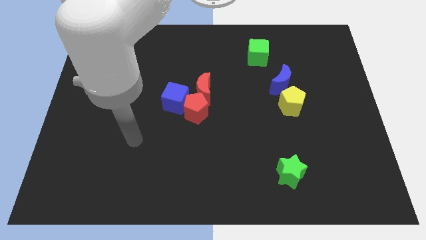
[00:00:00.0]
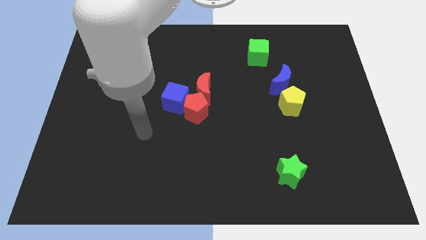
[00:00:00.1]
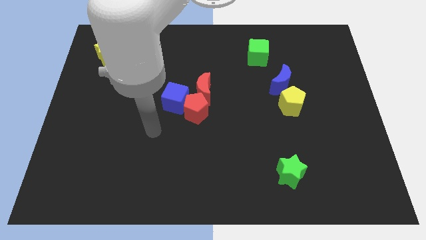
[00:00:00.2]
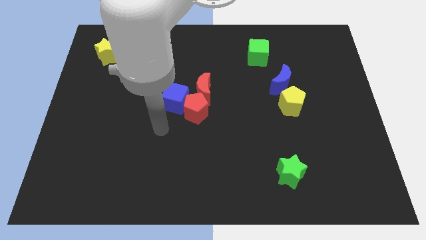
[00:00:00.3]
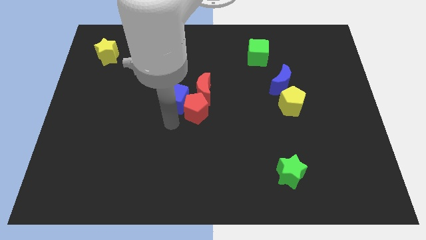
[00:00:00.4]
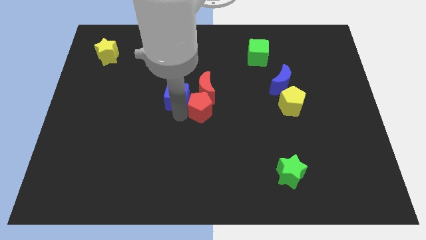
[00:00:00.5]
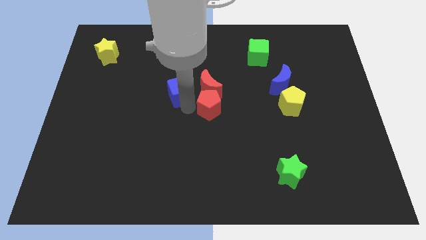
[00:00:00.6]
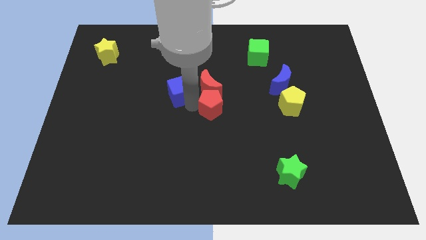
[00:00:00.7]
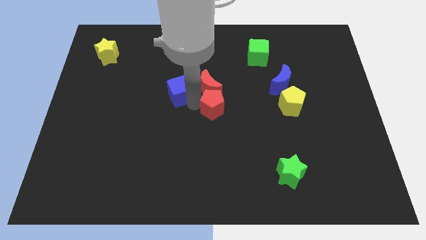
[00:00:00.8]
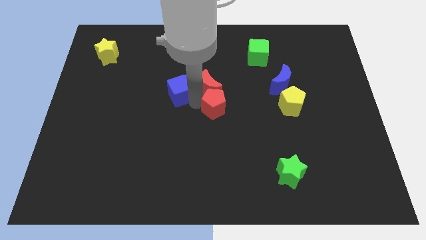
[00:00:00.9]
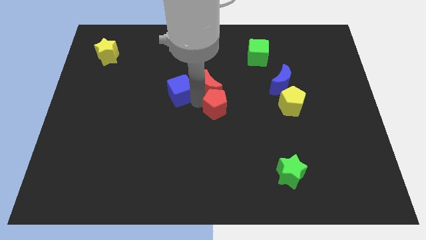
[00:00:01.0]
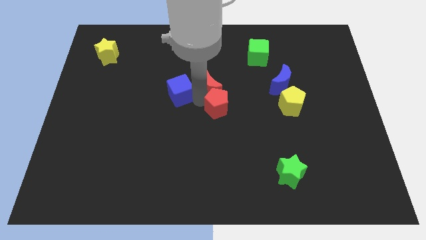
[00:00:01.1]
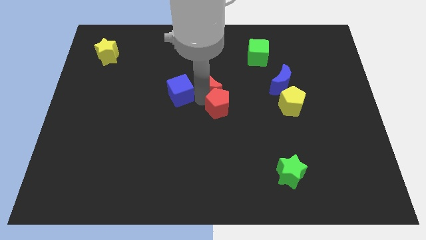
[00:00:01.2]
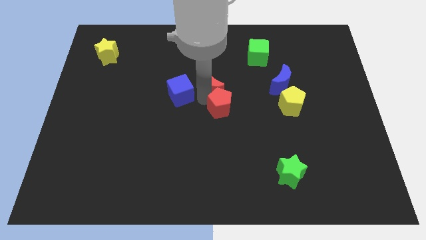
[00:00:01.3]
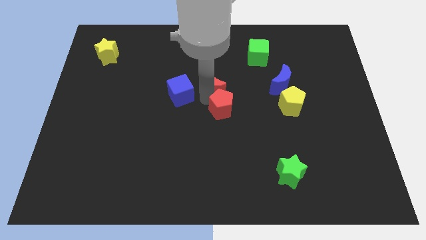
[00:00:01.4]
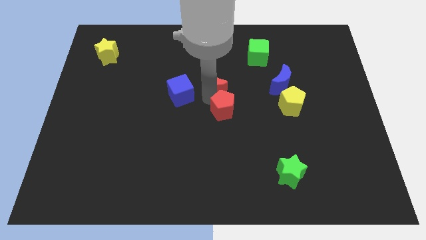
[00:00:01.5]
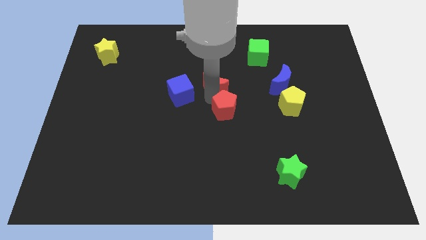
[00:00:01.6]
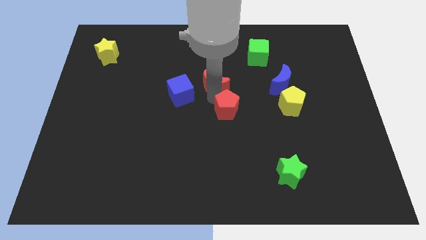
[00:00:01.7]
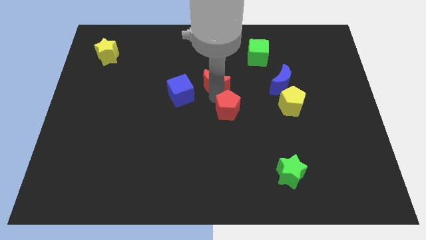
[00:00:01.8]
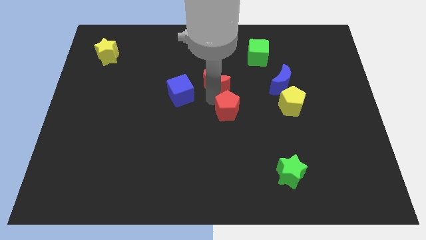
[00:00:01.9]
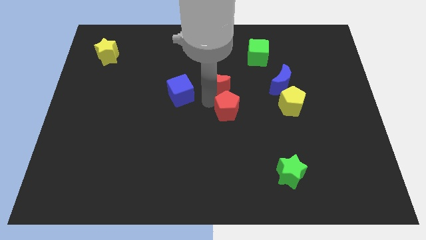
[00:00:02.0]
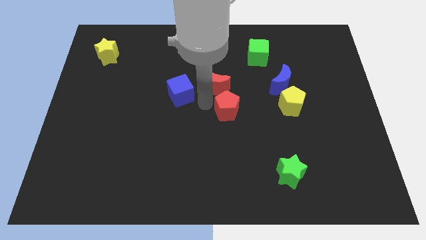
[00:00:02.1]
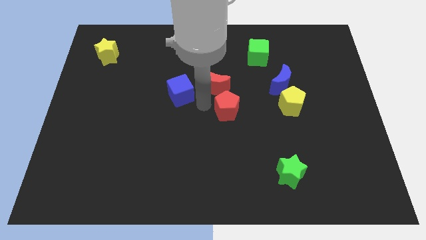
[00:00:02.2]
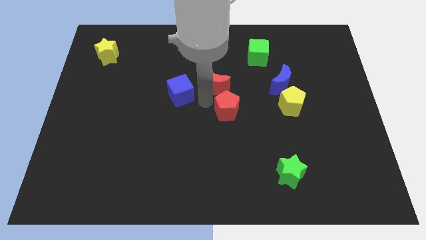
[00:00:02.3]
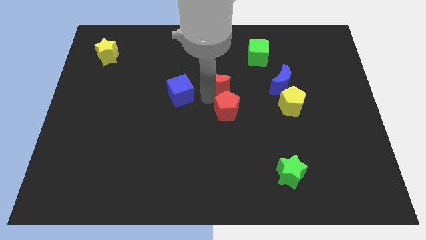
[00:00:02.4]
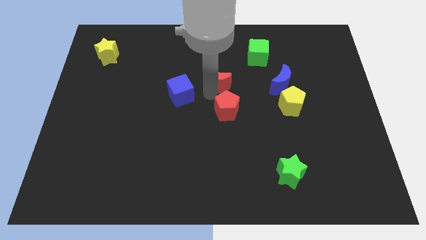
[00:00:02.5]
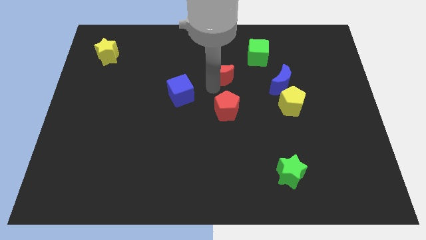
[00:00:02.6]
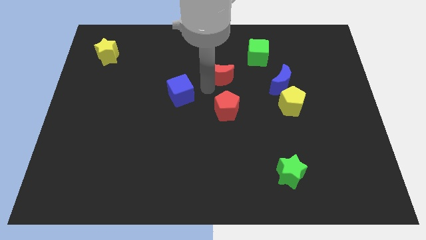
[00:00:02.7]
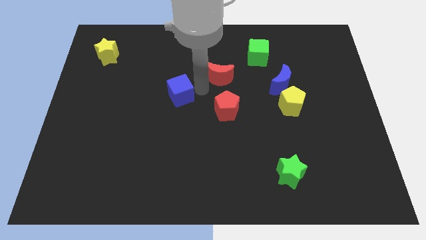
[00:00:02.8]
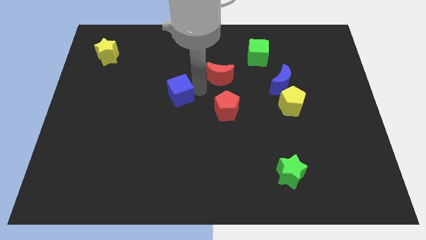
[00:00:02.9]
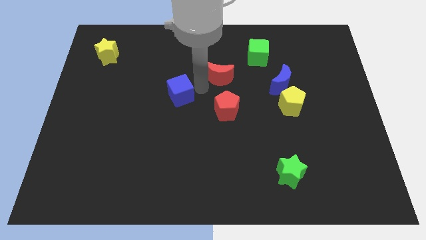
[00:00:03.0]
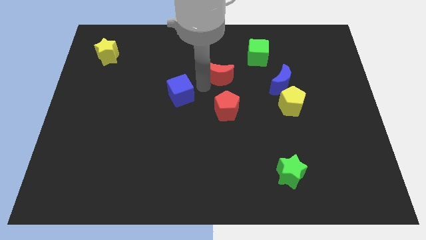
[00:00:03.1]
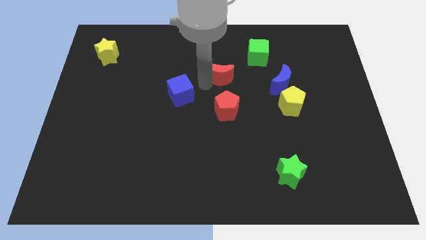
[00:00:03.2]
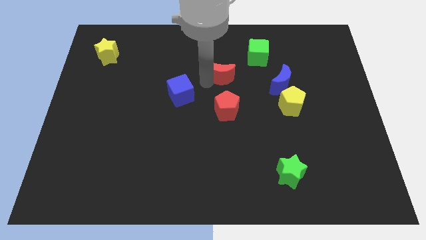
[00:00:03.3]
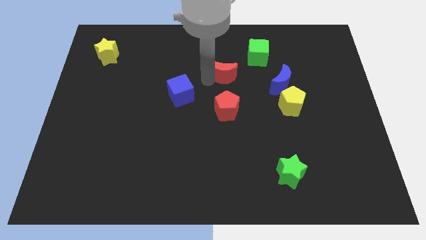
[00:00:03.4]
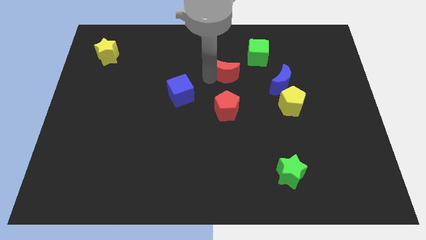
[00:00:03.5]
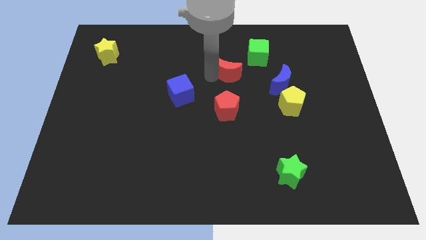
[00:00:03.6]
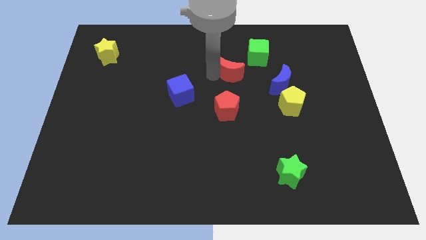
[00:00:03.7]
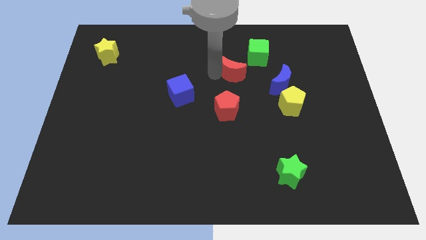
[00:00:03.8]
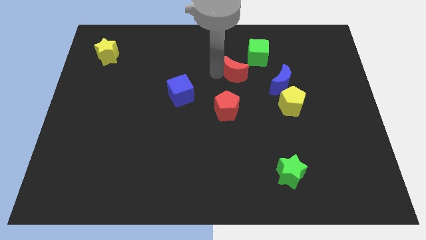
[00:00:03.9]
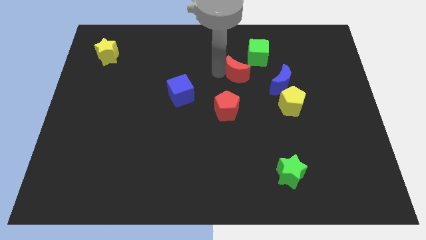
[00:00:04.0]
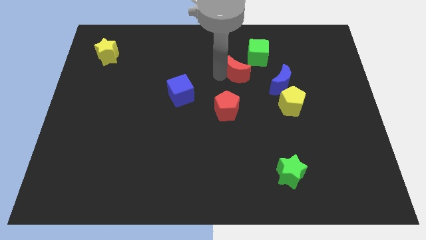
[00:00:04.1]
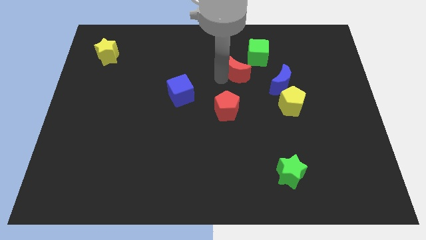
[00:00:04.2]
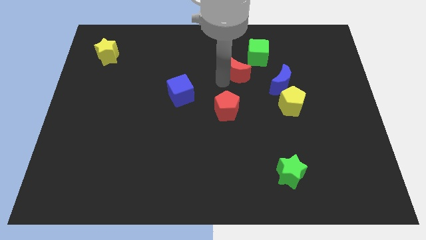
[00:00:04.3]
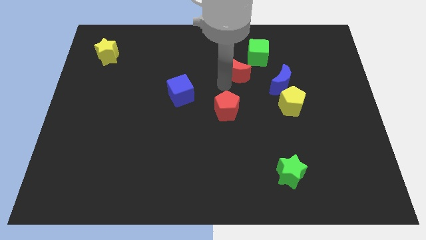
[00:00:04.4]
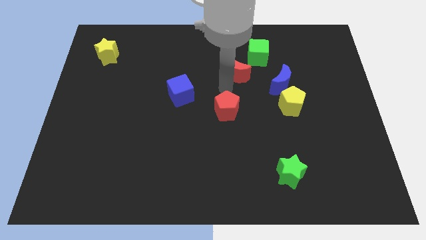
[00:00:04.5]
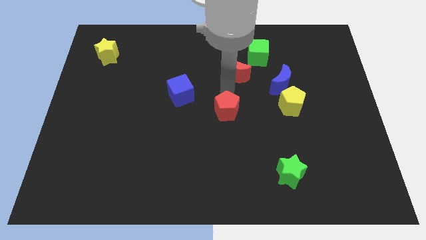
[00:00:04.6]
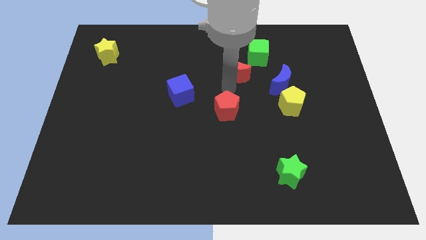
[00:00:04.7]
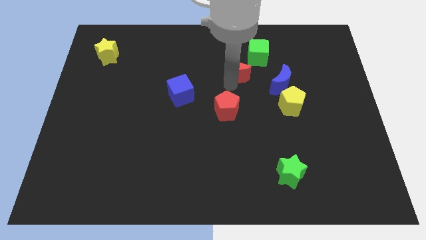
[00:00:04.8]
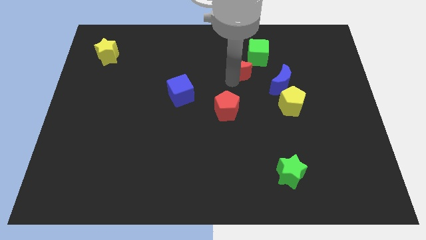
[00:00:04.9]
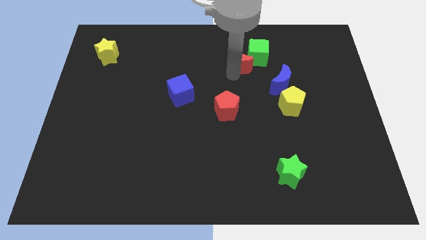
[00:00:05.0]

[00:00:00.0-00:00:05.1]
put the red moon close to the green cube

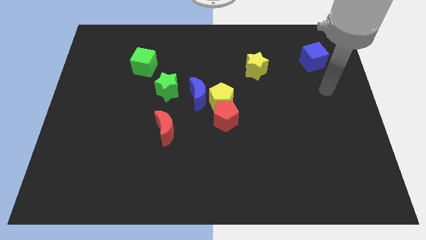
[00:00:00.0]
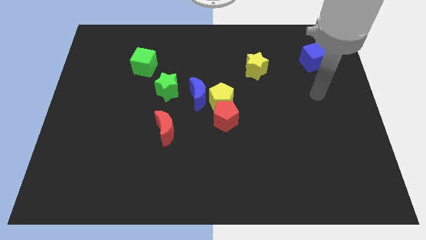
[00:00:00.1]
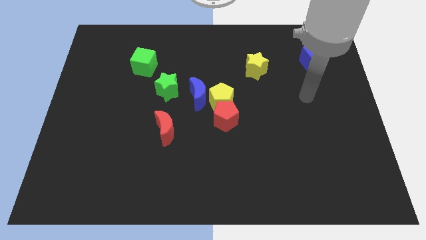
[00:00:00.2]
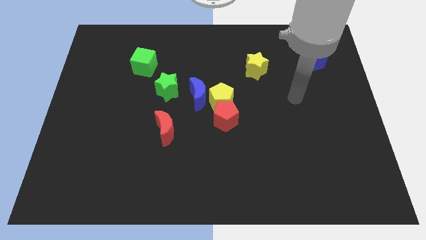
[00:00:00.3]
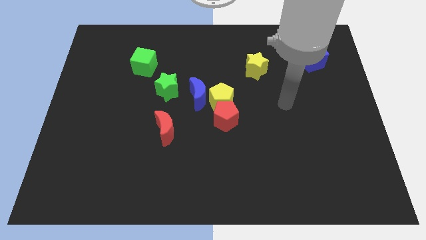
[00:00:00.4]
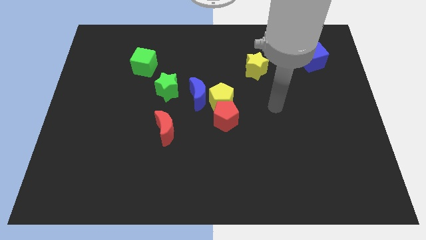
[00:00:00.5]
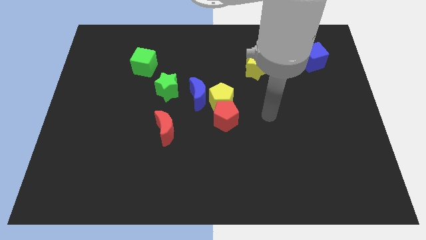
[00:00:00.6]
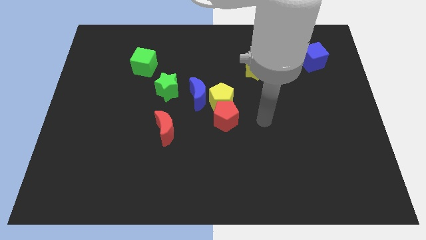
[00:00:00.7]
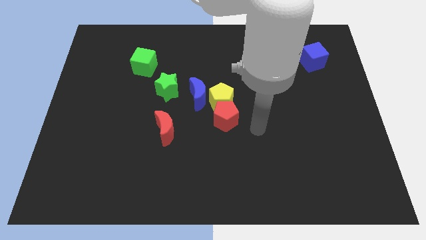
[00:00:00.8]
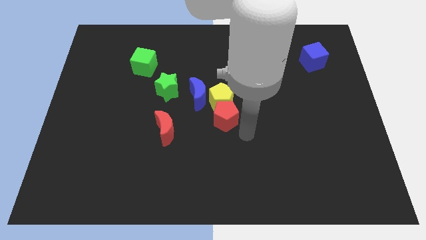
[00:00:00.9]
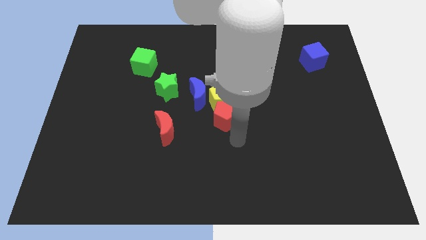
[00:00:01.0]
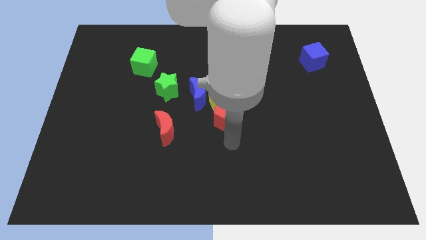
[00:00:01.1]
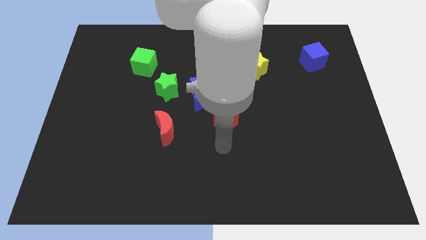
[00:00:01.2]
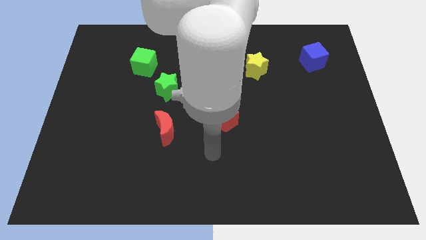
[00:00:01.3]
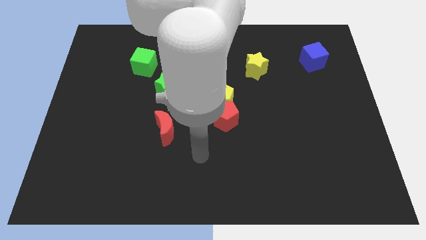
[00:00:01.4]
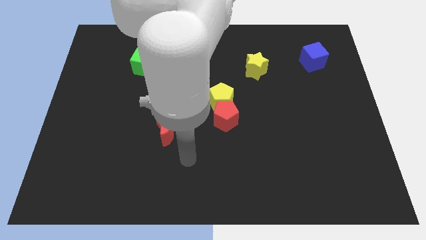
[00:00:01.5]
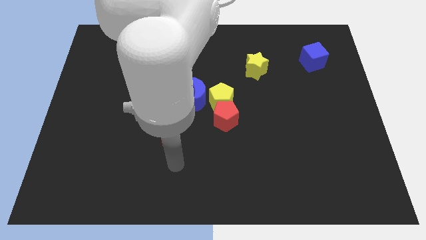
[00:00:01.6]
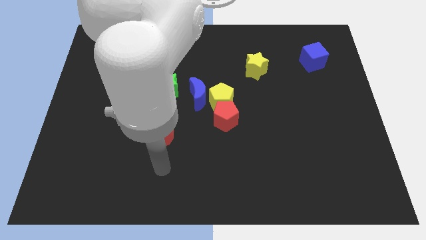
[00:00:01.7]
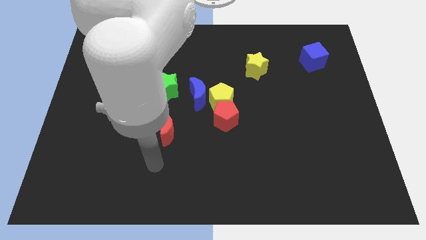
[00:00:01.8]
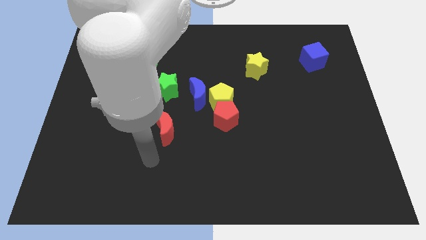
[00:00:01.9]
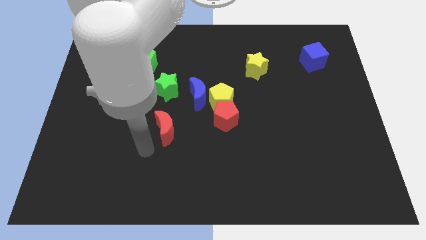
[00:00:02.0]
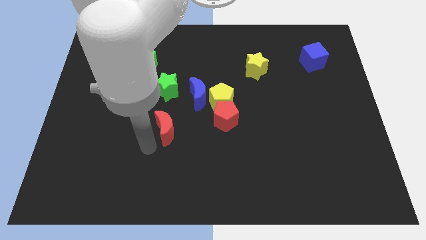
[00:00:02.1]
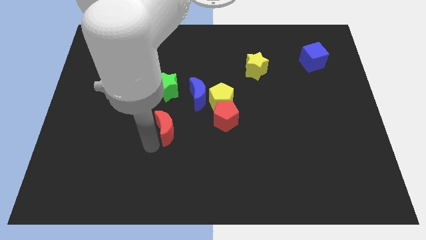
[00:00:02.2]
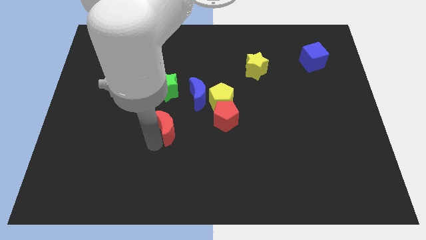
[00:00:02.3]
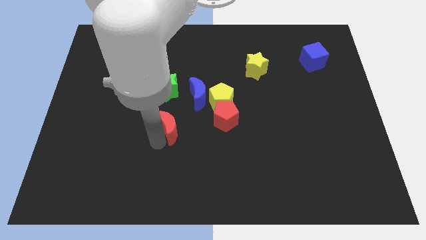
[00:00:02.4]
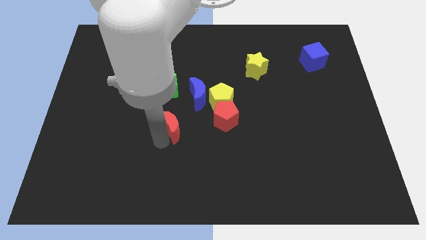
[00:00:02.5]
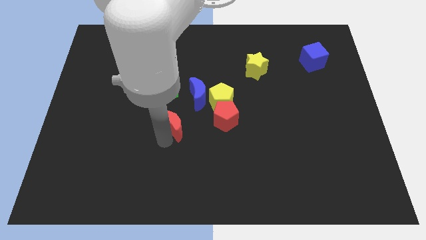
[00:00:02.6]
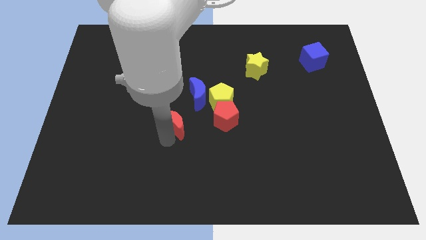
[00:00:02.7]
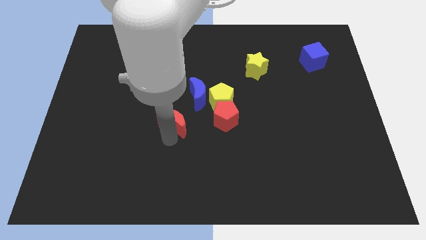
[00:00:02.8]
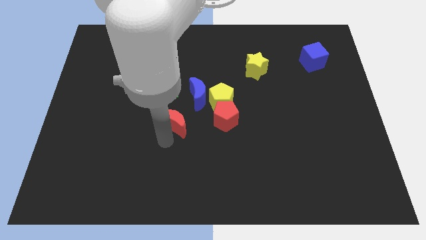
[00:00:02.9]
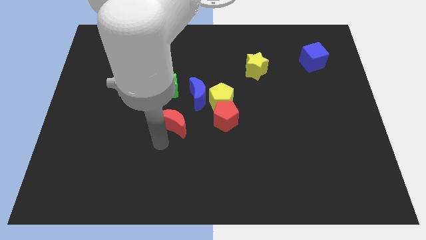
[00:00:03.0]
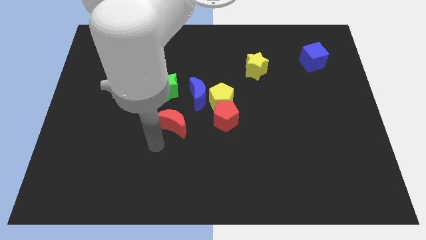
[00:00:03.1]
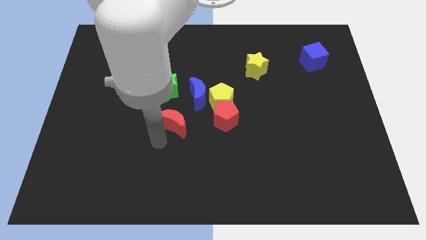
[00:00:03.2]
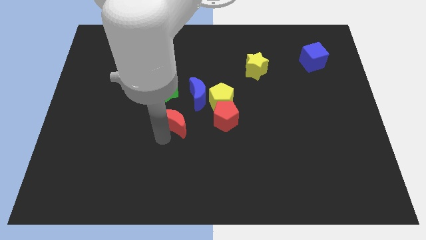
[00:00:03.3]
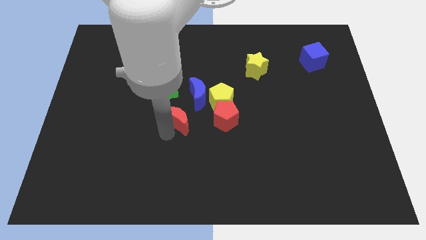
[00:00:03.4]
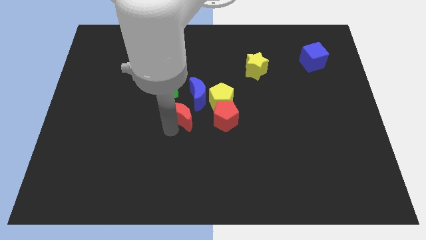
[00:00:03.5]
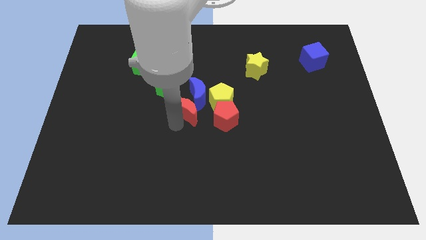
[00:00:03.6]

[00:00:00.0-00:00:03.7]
move the red moon to the blue moon
